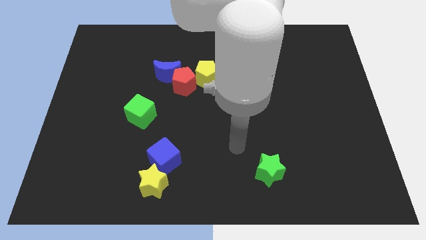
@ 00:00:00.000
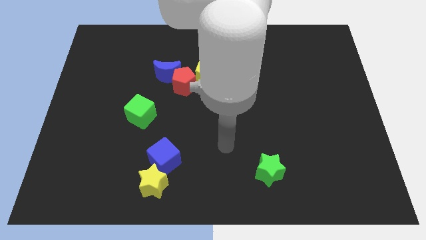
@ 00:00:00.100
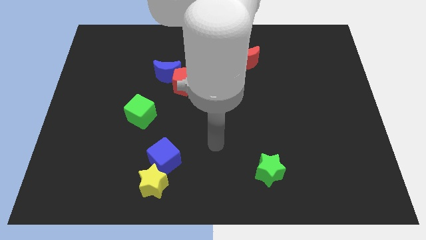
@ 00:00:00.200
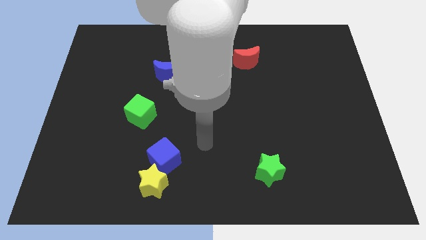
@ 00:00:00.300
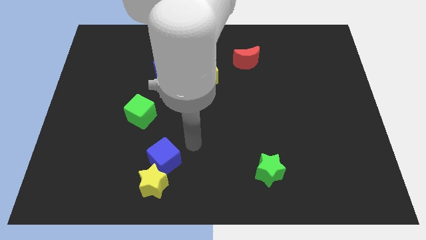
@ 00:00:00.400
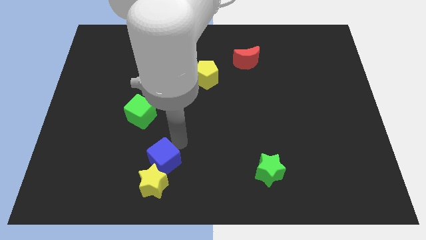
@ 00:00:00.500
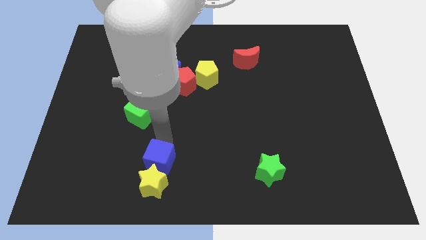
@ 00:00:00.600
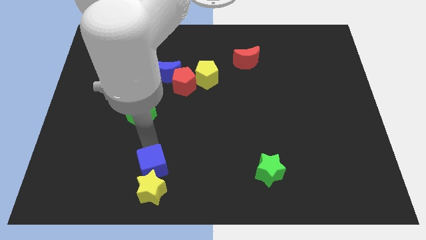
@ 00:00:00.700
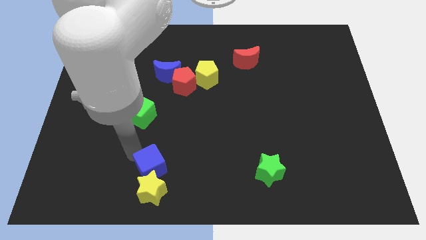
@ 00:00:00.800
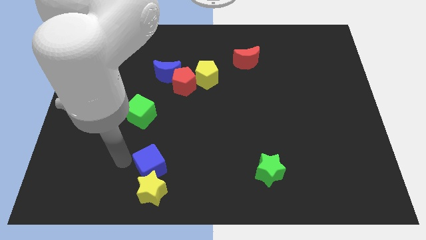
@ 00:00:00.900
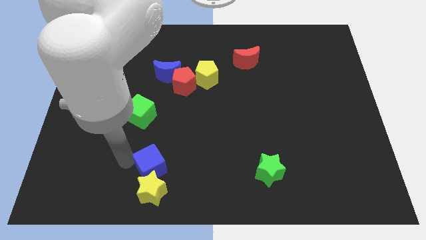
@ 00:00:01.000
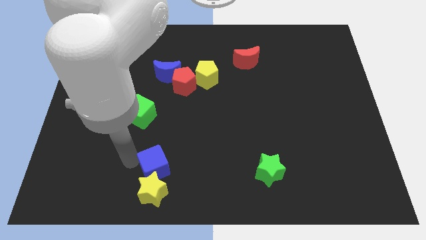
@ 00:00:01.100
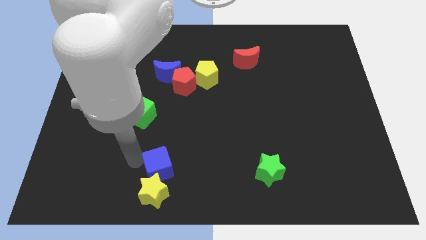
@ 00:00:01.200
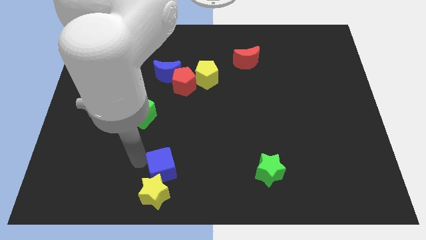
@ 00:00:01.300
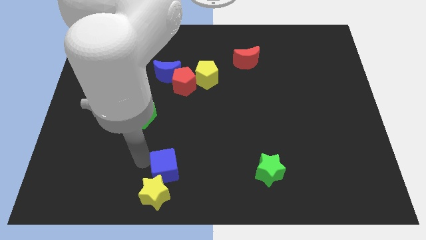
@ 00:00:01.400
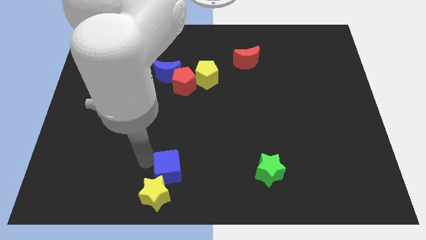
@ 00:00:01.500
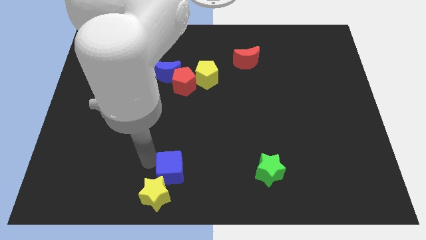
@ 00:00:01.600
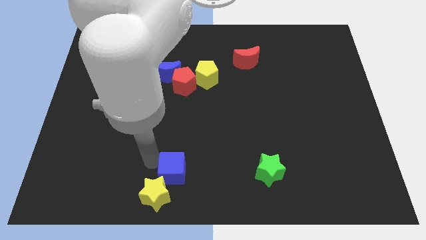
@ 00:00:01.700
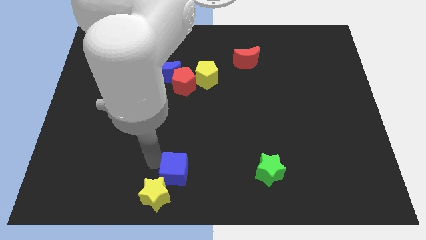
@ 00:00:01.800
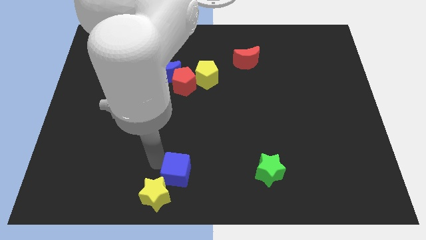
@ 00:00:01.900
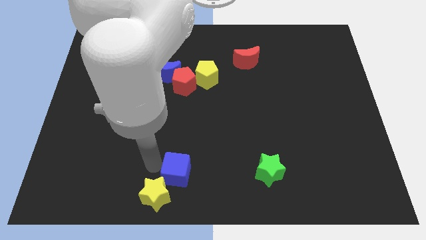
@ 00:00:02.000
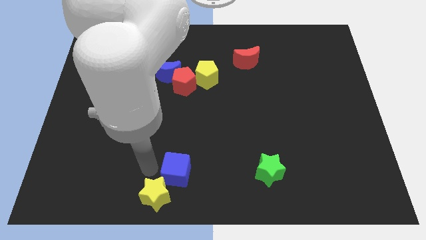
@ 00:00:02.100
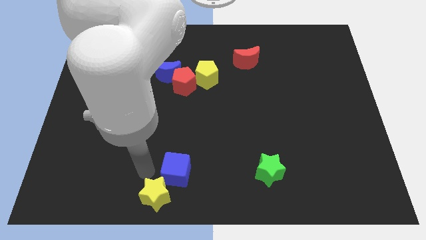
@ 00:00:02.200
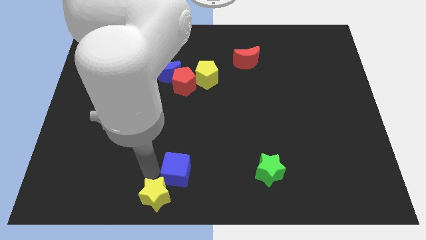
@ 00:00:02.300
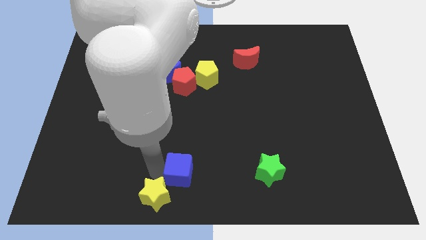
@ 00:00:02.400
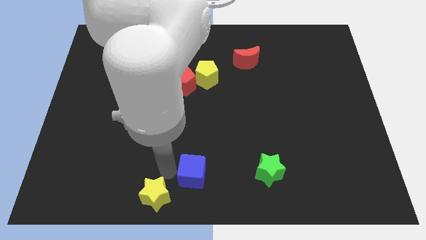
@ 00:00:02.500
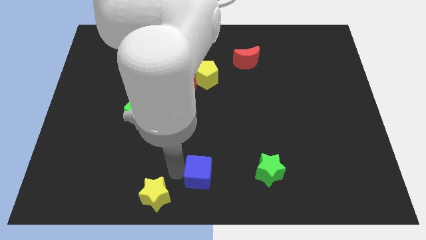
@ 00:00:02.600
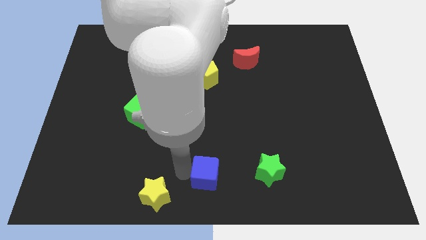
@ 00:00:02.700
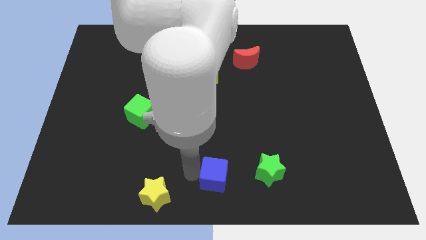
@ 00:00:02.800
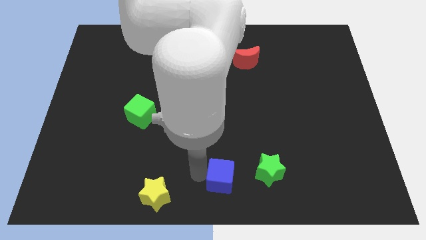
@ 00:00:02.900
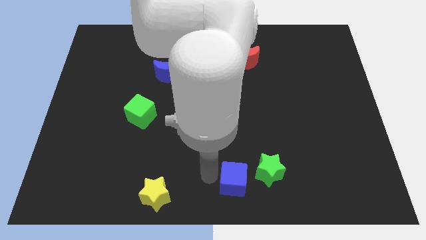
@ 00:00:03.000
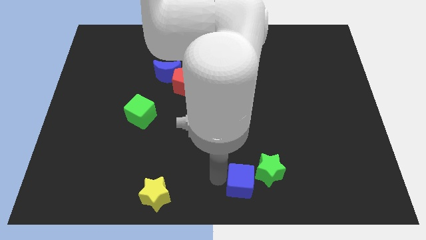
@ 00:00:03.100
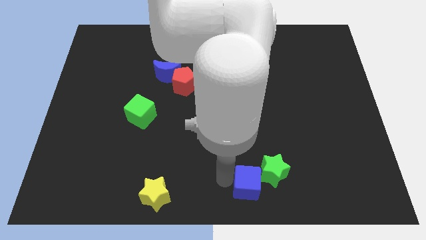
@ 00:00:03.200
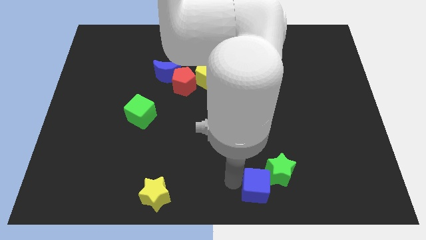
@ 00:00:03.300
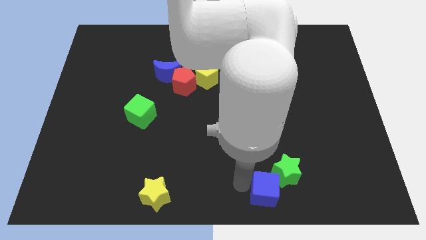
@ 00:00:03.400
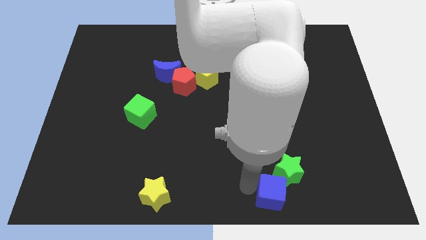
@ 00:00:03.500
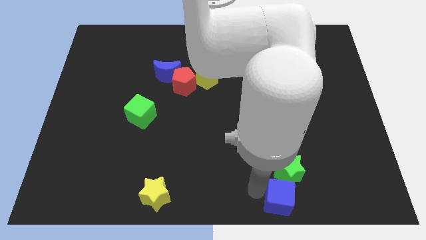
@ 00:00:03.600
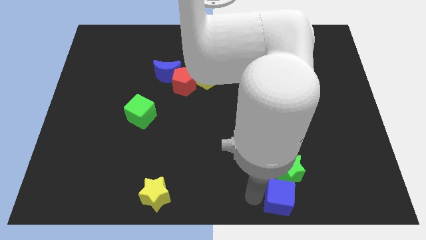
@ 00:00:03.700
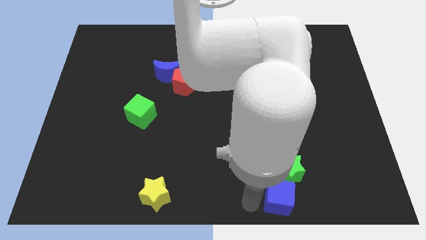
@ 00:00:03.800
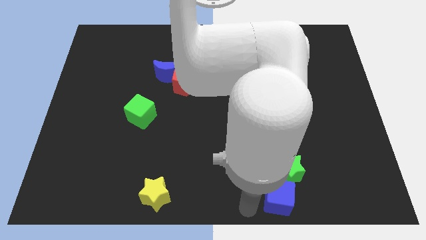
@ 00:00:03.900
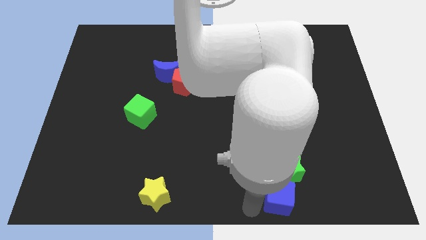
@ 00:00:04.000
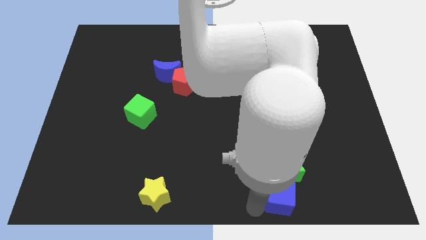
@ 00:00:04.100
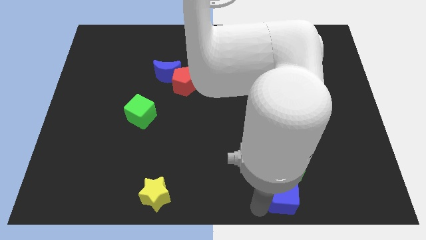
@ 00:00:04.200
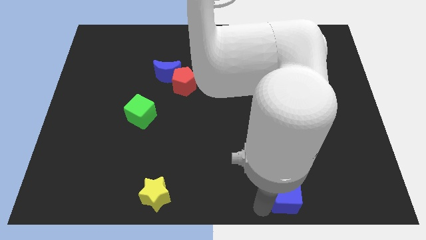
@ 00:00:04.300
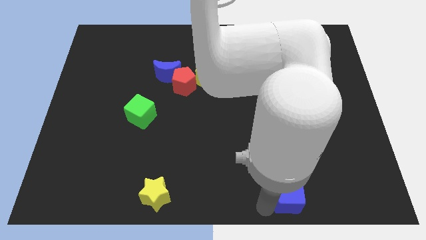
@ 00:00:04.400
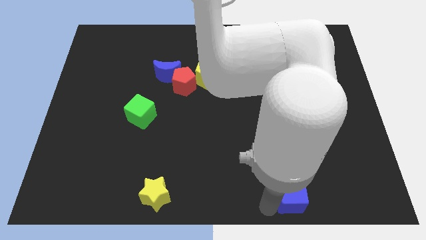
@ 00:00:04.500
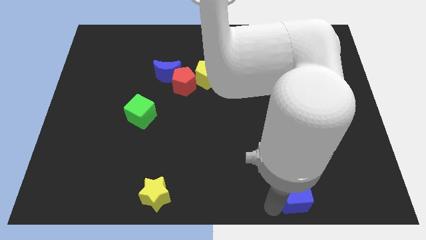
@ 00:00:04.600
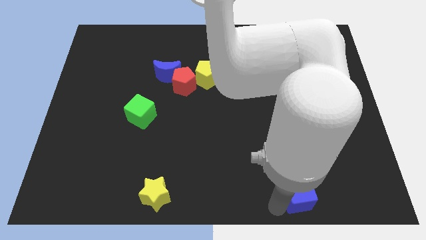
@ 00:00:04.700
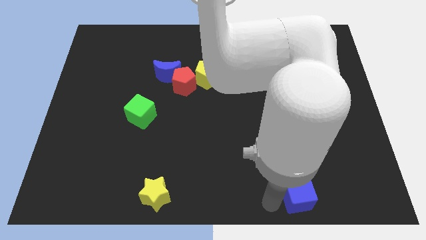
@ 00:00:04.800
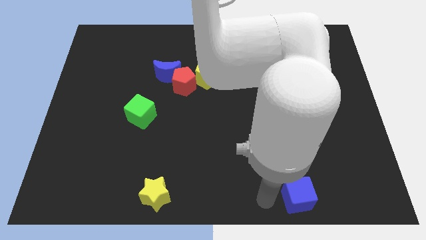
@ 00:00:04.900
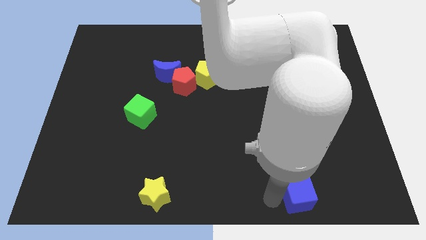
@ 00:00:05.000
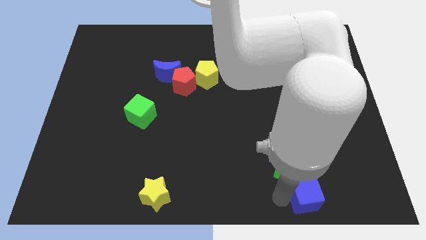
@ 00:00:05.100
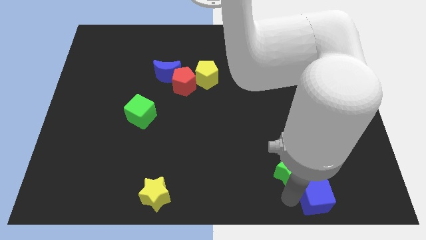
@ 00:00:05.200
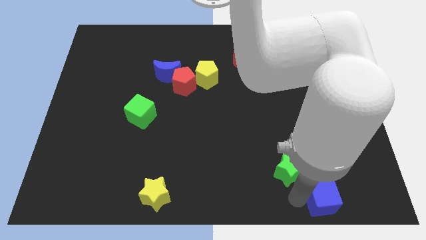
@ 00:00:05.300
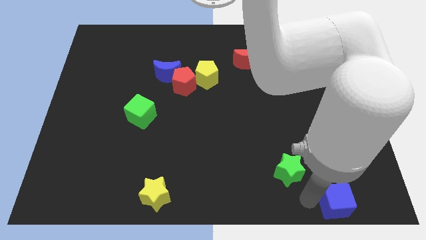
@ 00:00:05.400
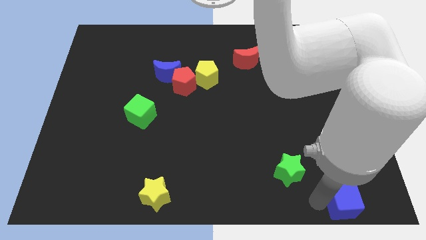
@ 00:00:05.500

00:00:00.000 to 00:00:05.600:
put the blue cube to the bottom right

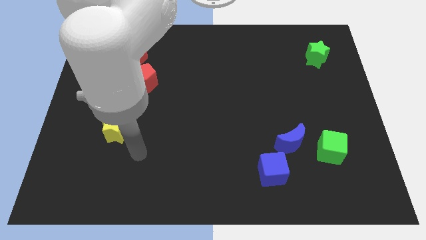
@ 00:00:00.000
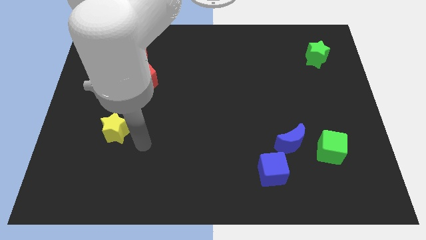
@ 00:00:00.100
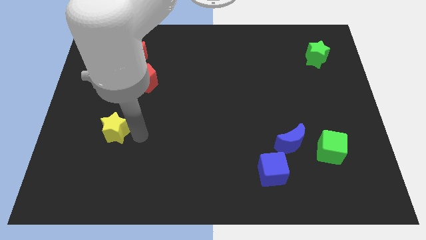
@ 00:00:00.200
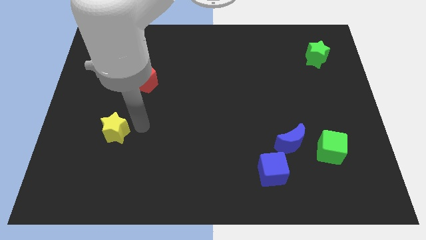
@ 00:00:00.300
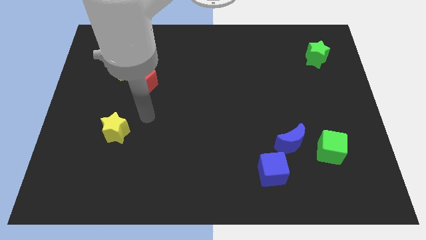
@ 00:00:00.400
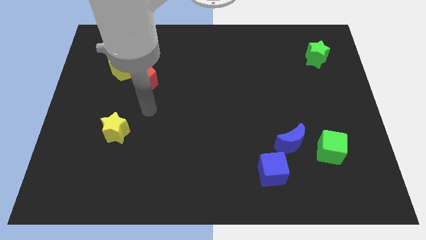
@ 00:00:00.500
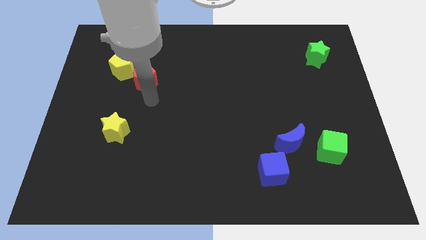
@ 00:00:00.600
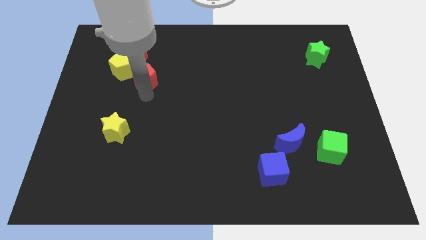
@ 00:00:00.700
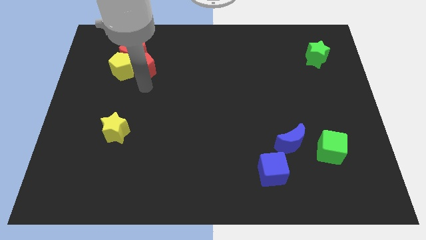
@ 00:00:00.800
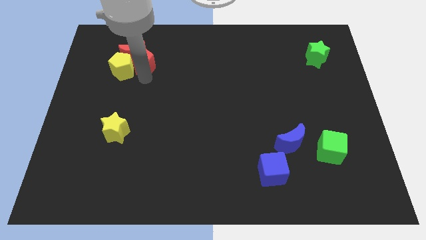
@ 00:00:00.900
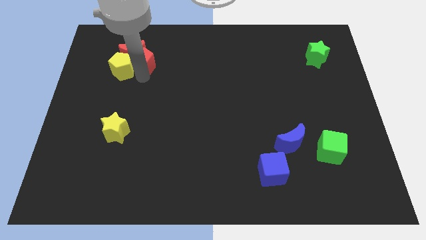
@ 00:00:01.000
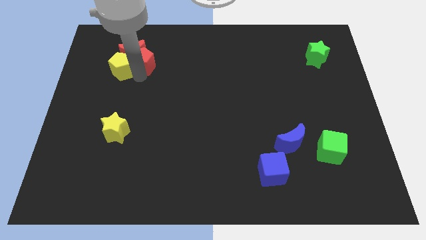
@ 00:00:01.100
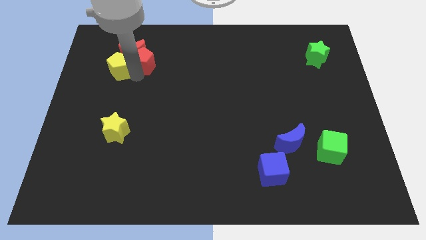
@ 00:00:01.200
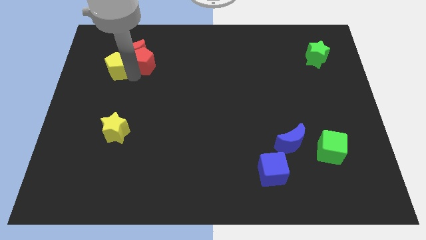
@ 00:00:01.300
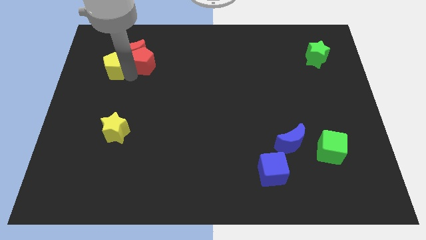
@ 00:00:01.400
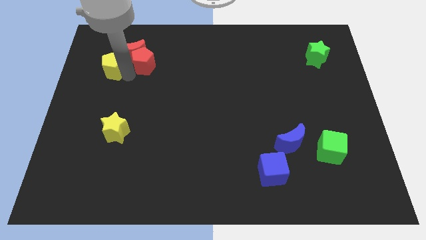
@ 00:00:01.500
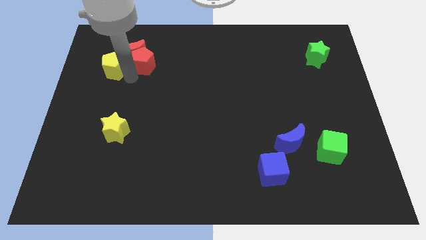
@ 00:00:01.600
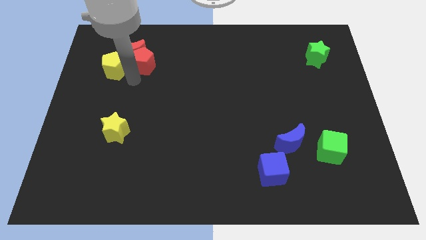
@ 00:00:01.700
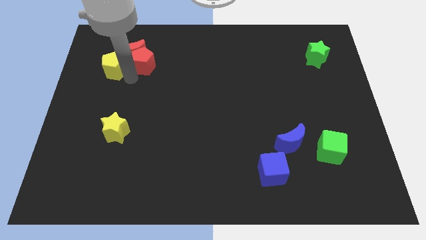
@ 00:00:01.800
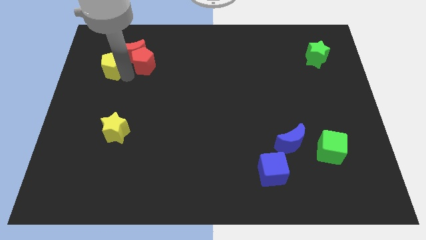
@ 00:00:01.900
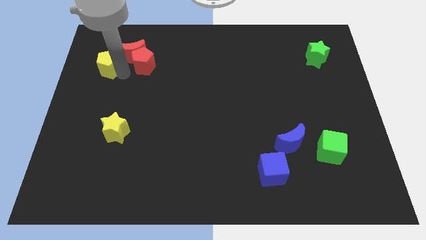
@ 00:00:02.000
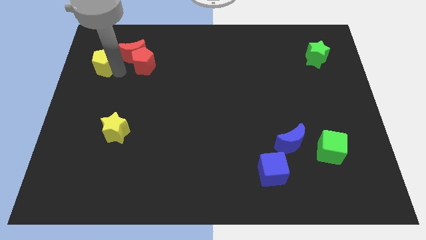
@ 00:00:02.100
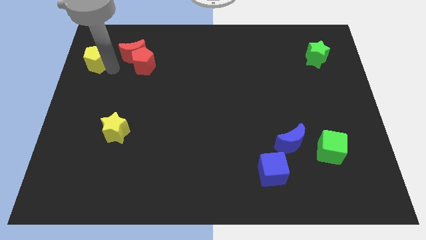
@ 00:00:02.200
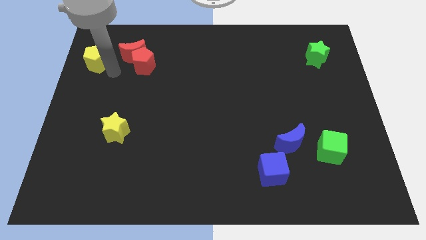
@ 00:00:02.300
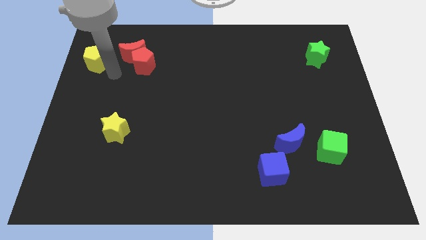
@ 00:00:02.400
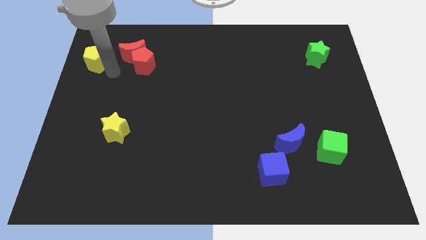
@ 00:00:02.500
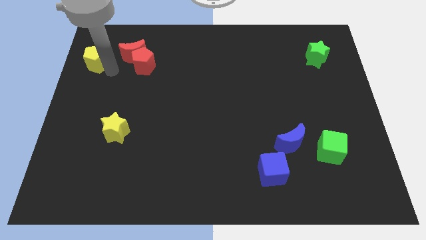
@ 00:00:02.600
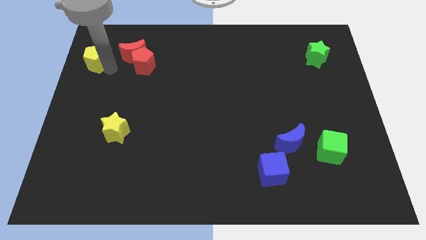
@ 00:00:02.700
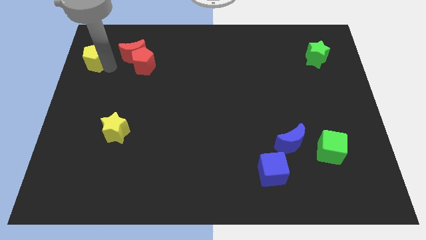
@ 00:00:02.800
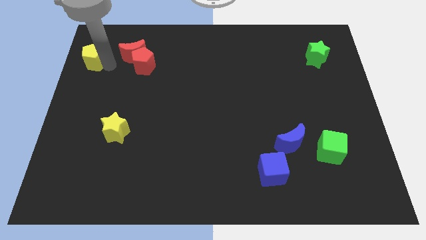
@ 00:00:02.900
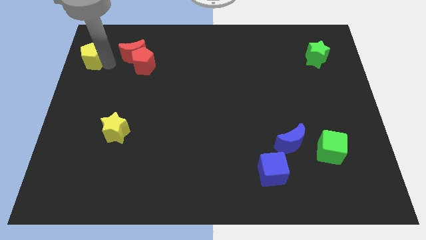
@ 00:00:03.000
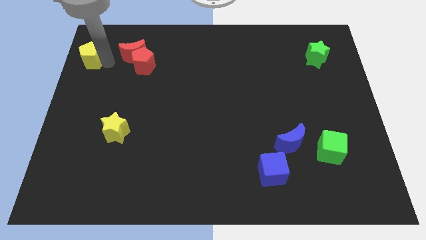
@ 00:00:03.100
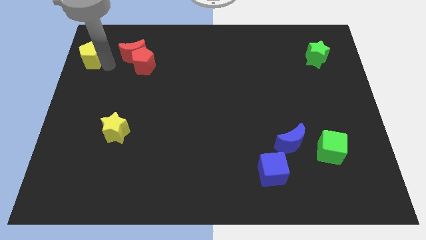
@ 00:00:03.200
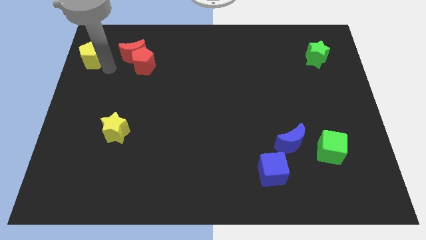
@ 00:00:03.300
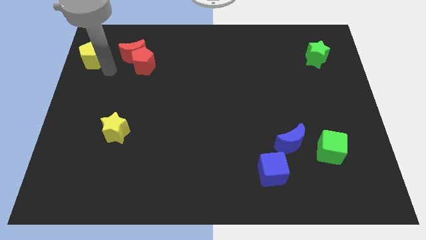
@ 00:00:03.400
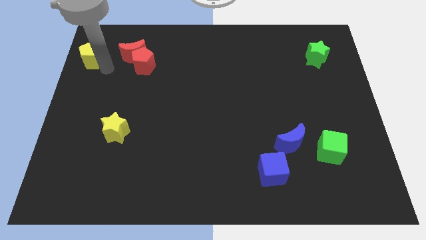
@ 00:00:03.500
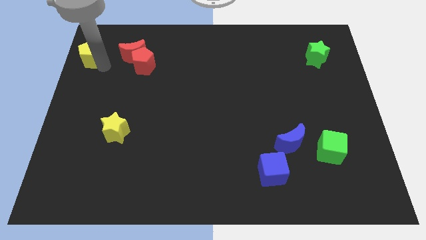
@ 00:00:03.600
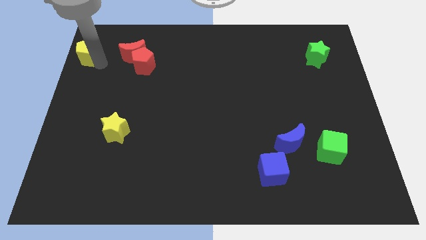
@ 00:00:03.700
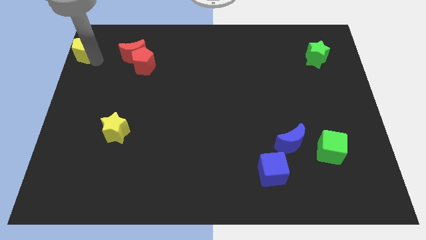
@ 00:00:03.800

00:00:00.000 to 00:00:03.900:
push the yellow pentagon to the upper left corner
